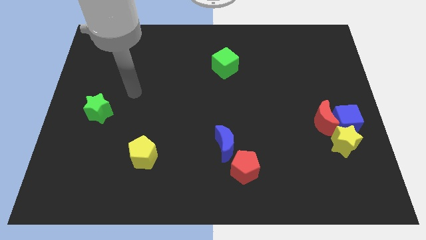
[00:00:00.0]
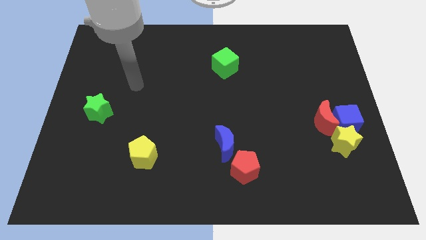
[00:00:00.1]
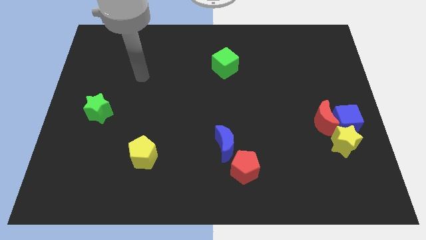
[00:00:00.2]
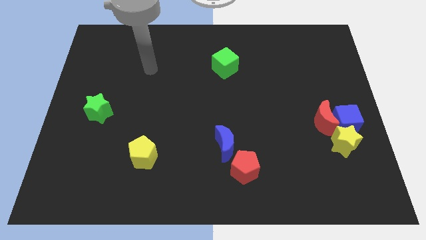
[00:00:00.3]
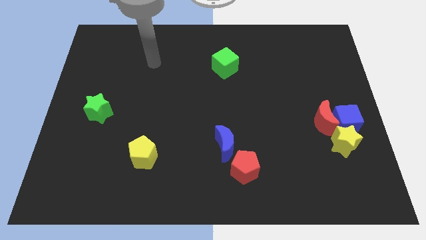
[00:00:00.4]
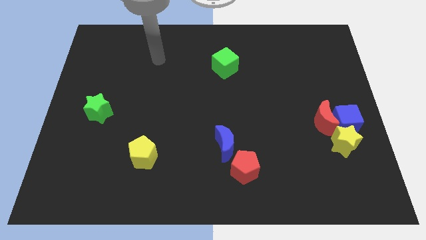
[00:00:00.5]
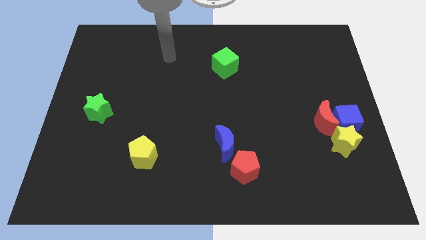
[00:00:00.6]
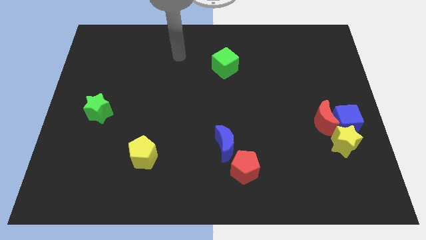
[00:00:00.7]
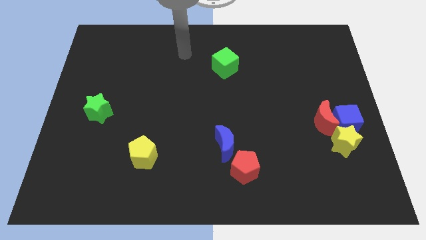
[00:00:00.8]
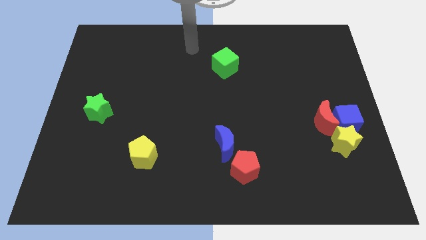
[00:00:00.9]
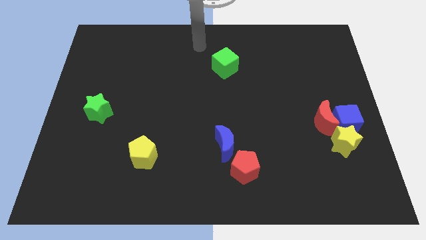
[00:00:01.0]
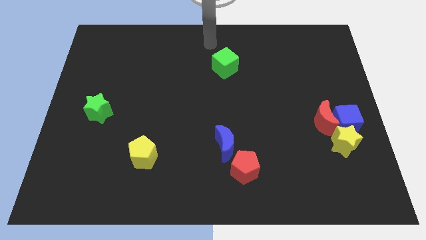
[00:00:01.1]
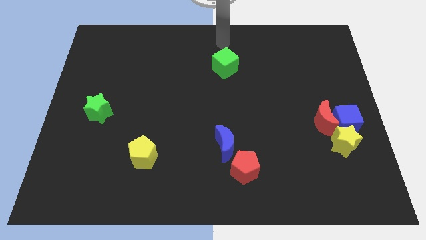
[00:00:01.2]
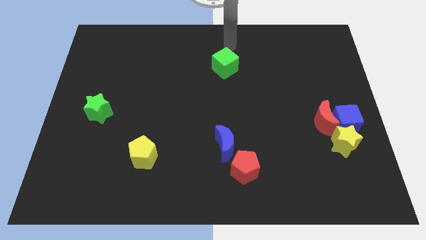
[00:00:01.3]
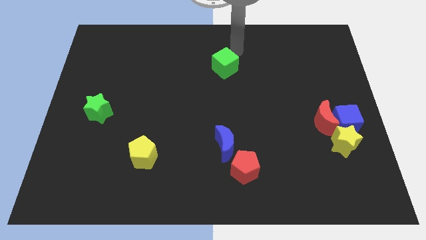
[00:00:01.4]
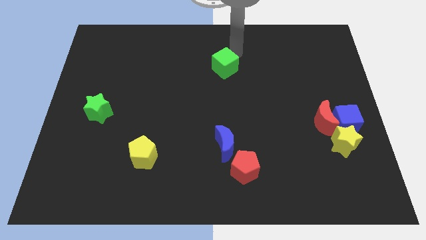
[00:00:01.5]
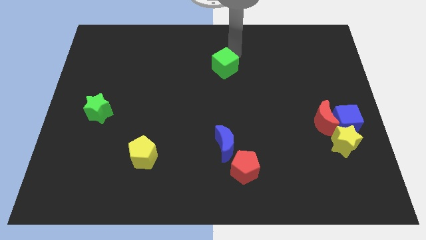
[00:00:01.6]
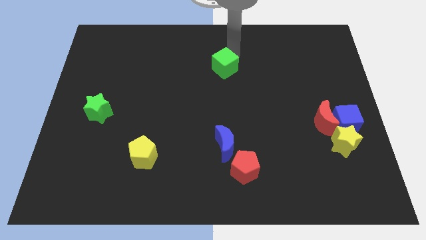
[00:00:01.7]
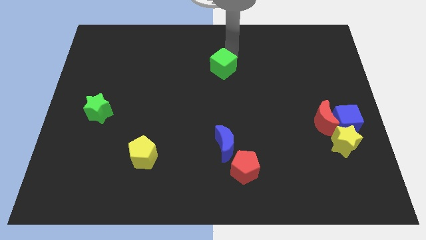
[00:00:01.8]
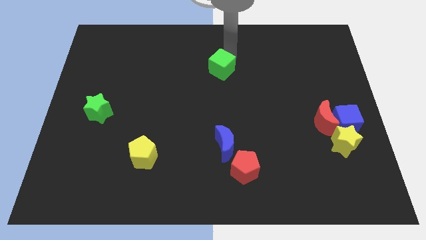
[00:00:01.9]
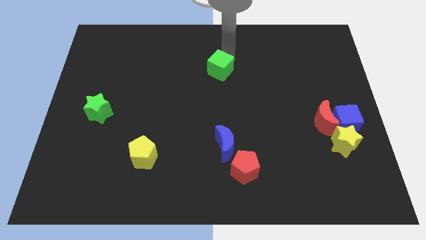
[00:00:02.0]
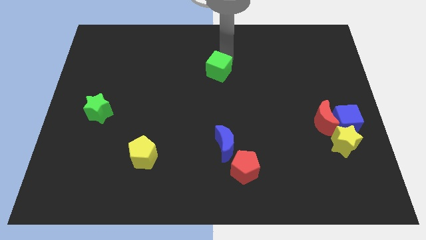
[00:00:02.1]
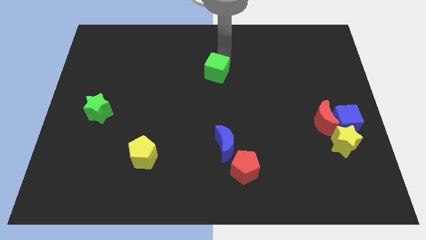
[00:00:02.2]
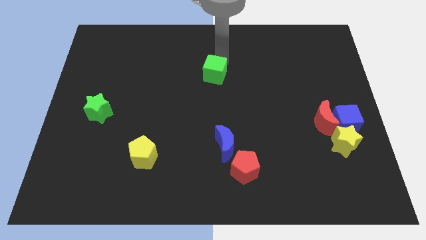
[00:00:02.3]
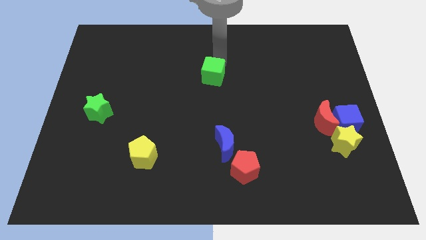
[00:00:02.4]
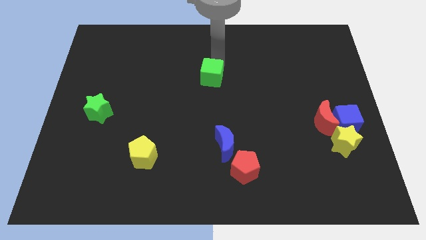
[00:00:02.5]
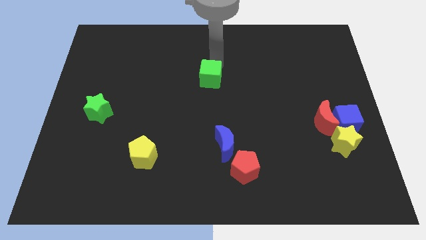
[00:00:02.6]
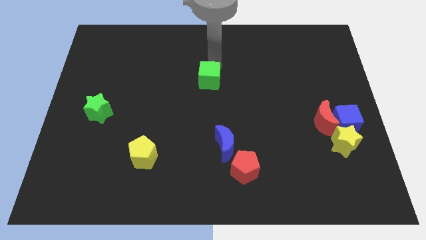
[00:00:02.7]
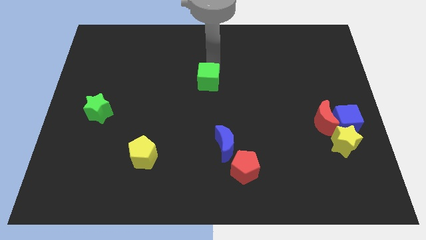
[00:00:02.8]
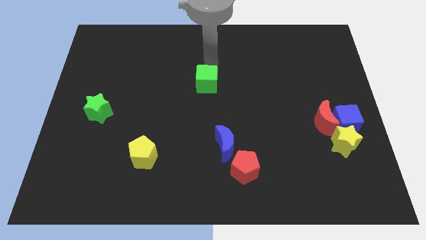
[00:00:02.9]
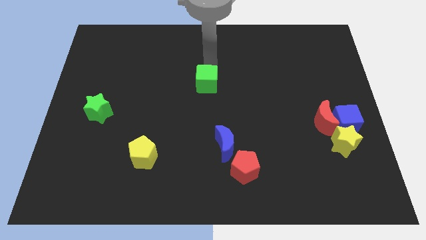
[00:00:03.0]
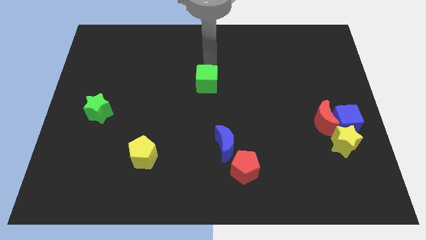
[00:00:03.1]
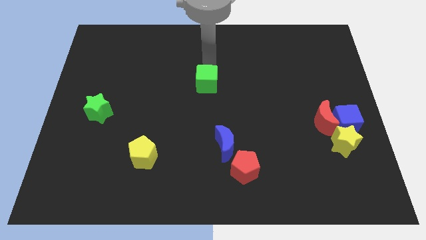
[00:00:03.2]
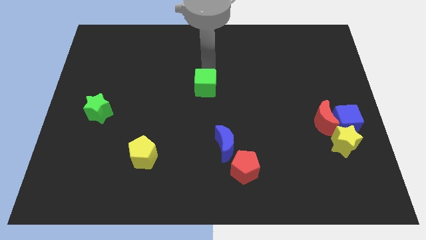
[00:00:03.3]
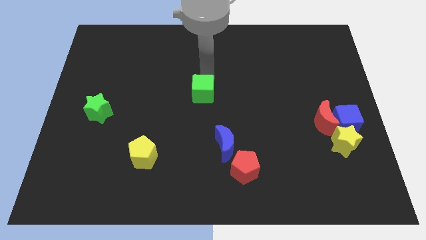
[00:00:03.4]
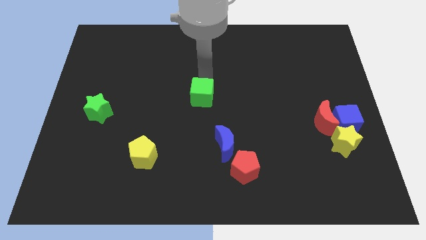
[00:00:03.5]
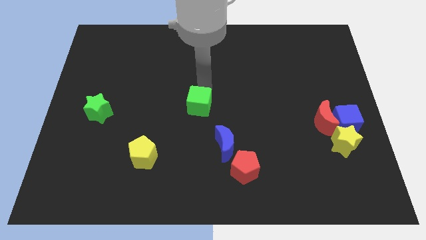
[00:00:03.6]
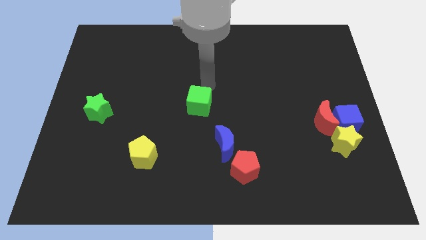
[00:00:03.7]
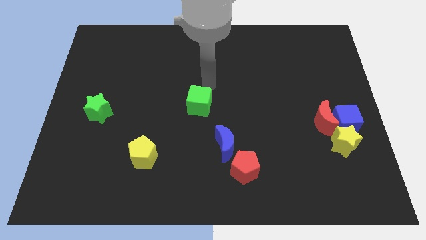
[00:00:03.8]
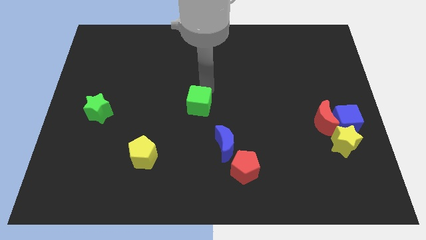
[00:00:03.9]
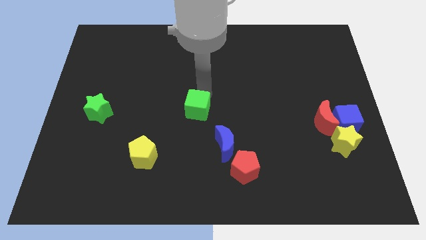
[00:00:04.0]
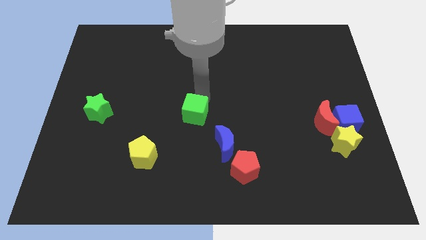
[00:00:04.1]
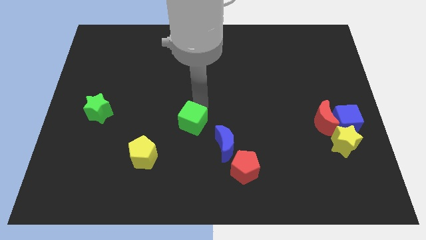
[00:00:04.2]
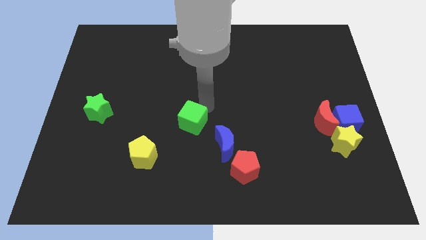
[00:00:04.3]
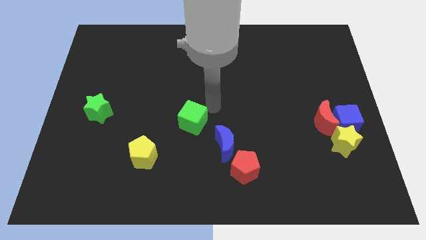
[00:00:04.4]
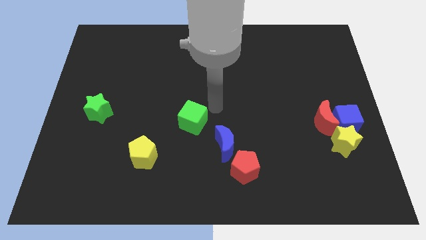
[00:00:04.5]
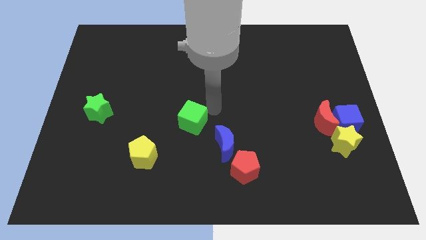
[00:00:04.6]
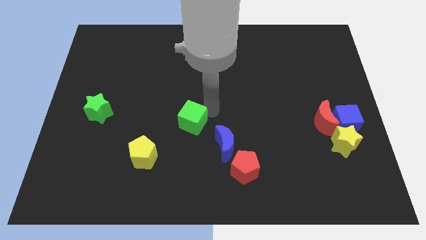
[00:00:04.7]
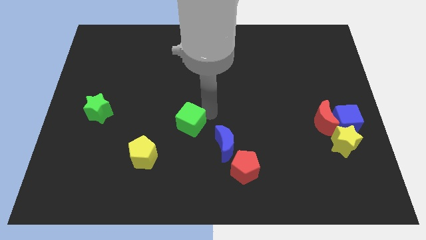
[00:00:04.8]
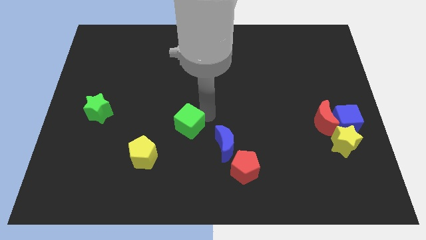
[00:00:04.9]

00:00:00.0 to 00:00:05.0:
push the green cube diagonally up and to the right of the yellow pentagon

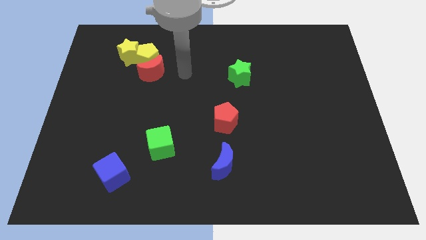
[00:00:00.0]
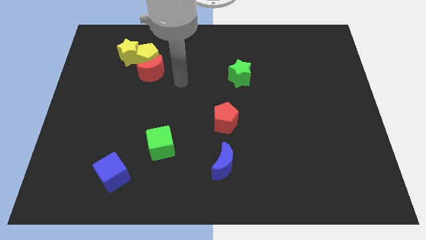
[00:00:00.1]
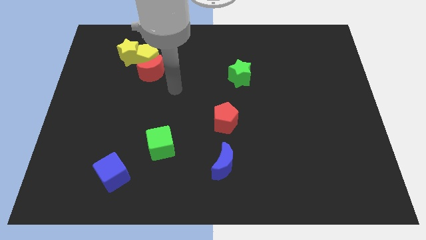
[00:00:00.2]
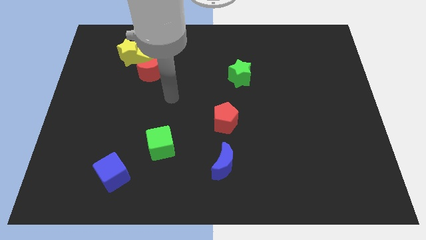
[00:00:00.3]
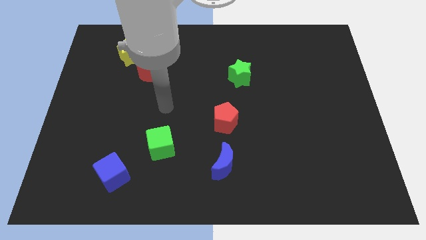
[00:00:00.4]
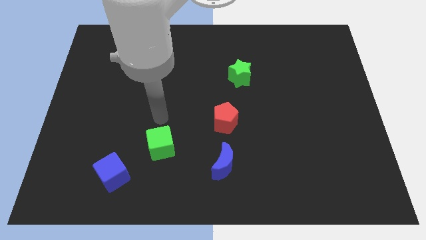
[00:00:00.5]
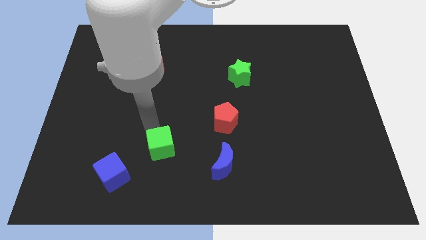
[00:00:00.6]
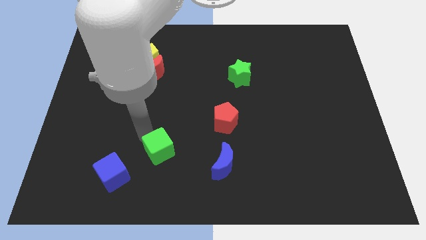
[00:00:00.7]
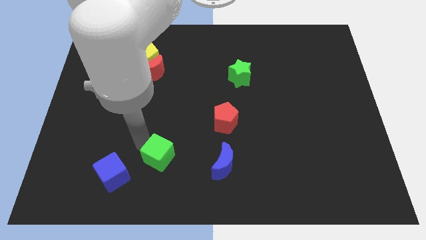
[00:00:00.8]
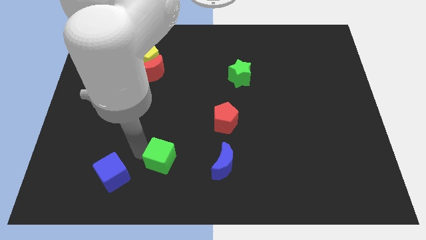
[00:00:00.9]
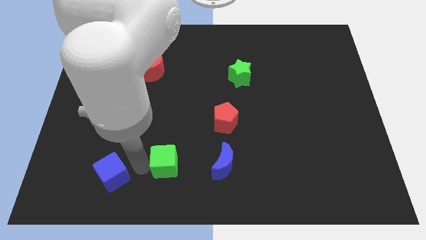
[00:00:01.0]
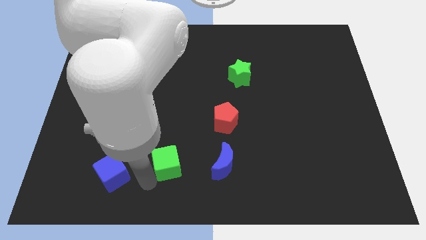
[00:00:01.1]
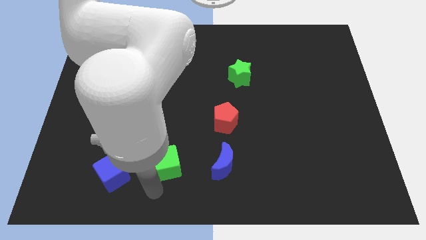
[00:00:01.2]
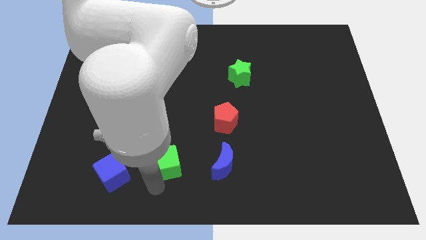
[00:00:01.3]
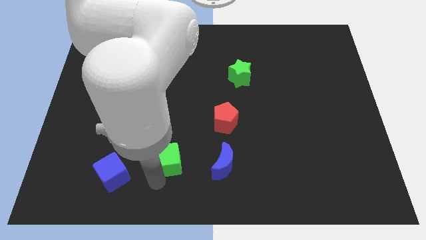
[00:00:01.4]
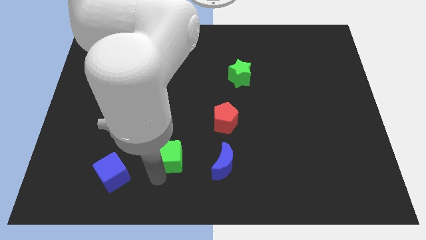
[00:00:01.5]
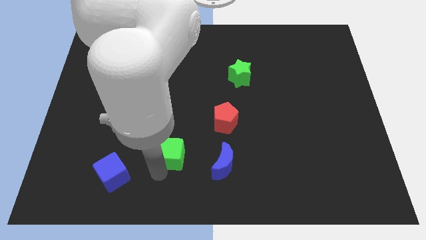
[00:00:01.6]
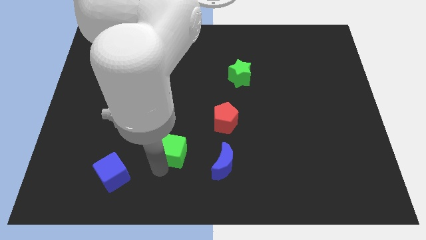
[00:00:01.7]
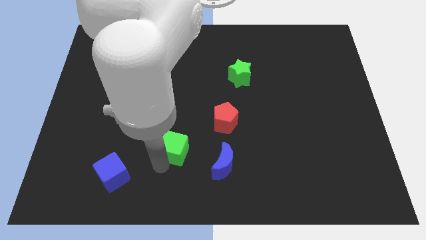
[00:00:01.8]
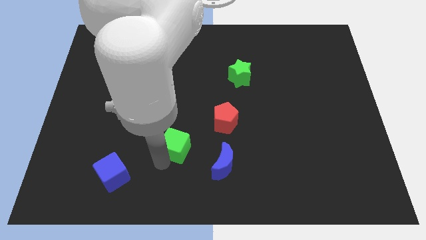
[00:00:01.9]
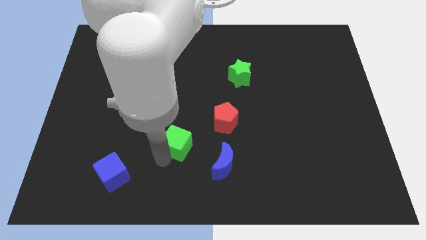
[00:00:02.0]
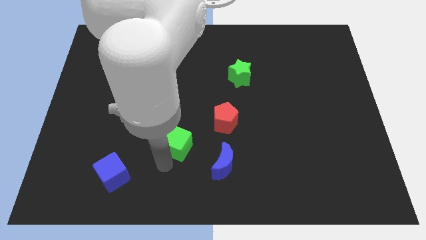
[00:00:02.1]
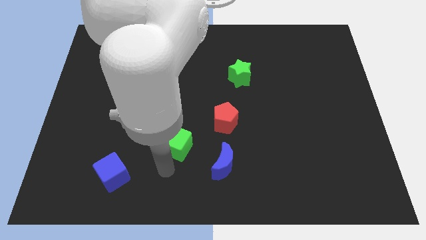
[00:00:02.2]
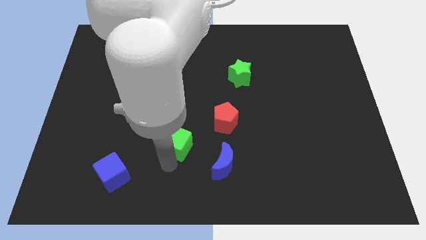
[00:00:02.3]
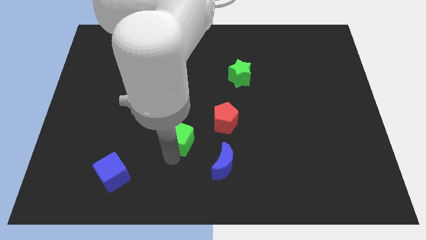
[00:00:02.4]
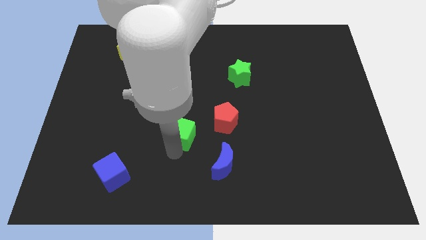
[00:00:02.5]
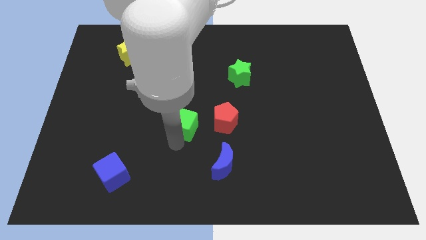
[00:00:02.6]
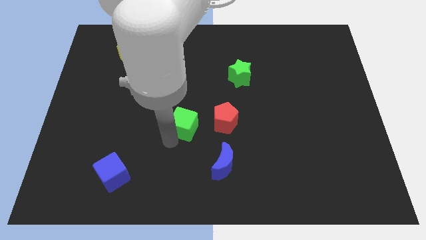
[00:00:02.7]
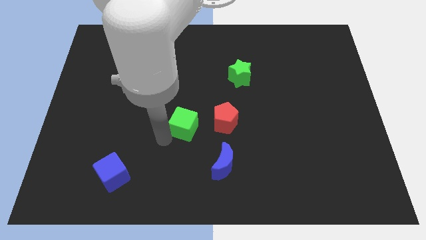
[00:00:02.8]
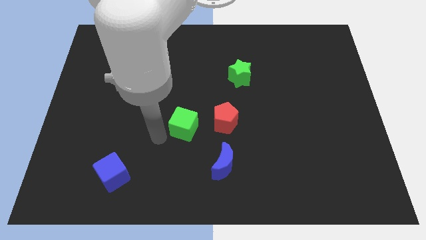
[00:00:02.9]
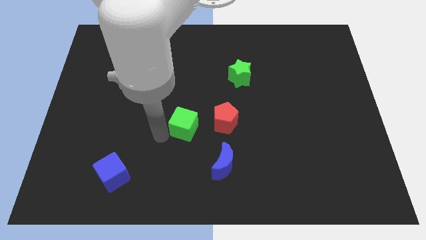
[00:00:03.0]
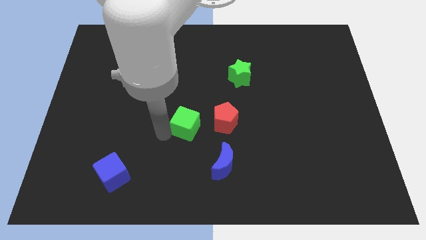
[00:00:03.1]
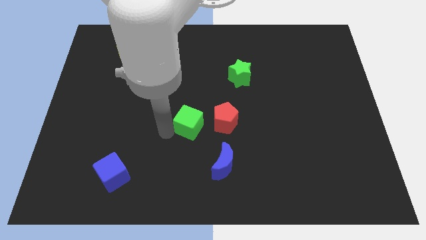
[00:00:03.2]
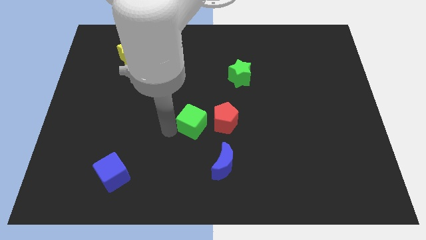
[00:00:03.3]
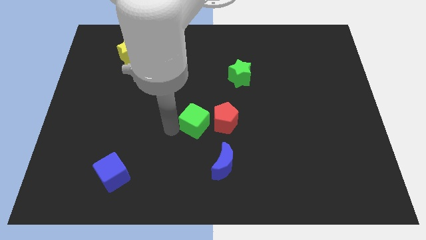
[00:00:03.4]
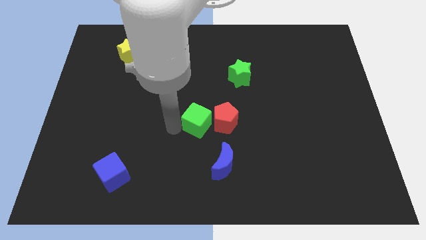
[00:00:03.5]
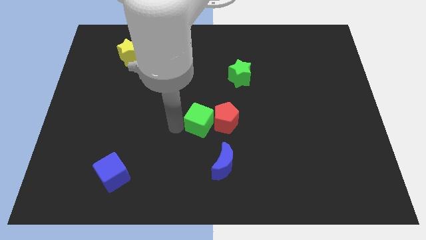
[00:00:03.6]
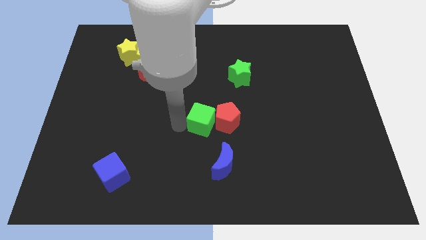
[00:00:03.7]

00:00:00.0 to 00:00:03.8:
push the green cube to the top side of the blue moon

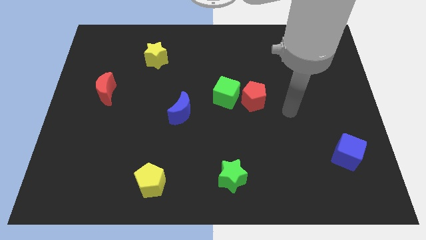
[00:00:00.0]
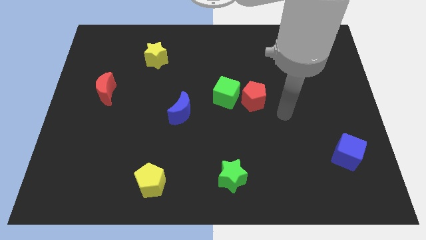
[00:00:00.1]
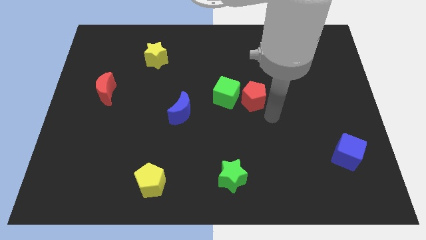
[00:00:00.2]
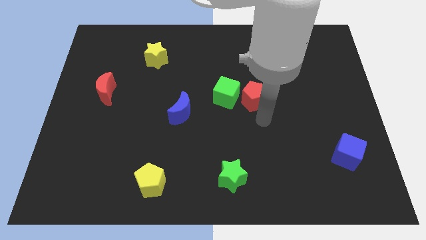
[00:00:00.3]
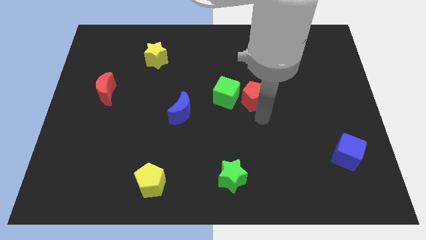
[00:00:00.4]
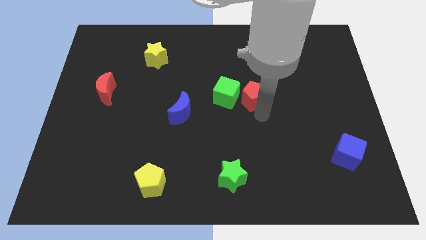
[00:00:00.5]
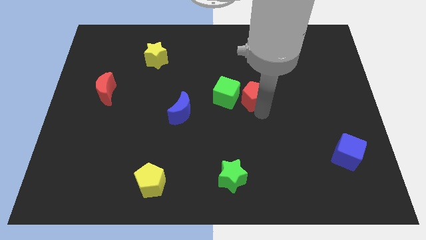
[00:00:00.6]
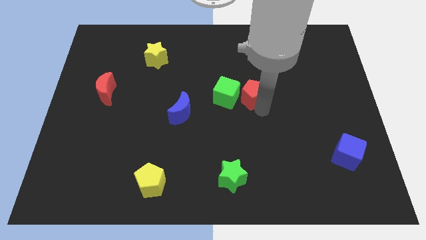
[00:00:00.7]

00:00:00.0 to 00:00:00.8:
slide the red pentagon to the top right side of the green cube
